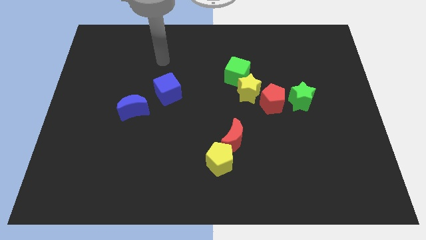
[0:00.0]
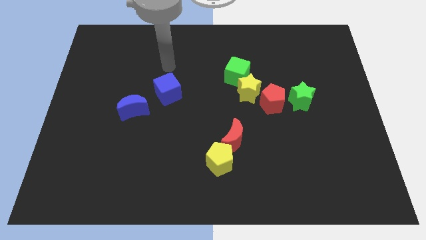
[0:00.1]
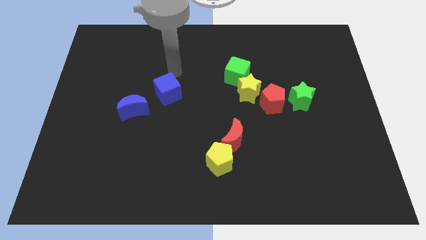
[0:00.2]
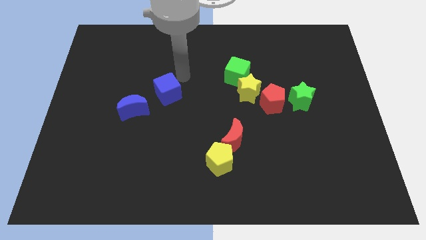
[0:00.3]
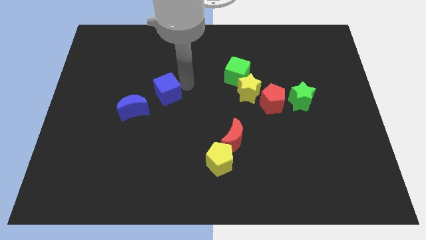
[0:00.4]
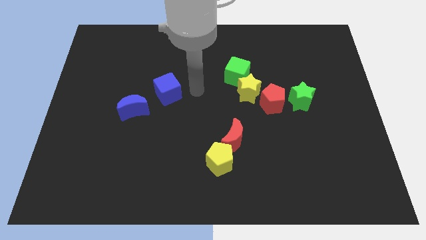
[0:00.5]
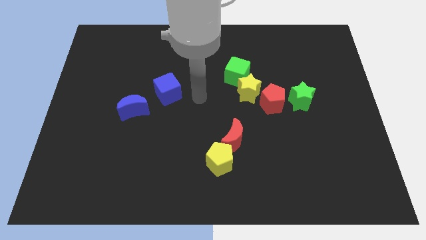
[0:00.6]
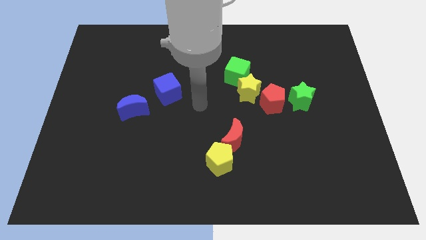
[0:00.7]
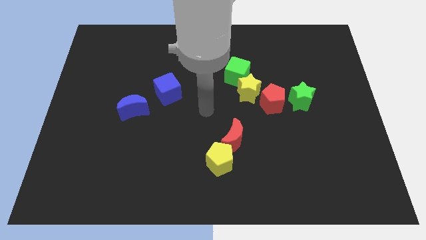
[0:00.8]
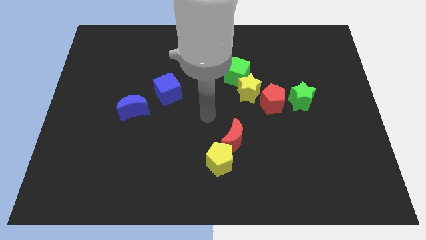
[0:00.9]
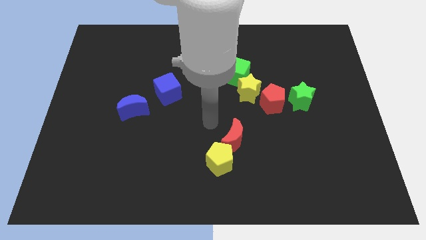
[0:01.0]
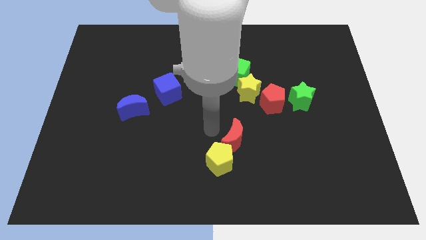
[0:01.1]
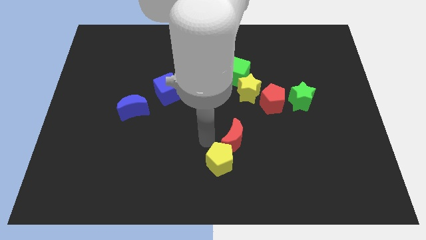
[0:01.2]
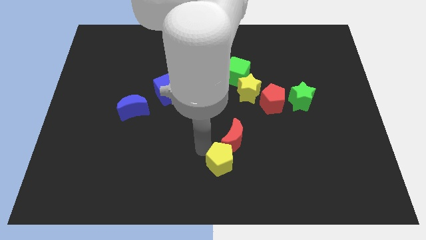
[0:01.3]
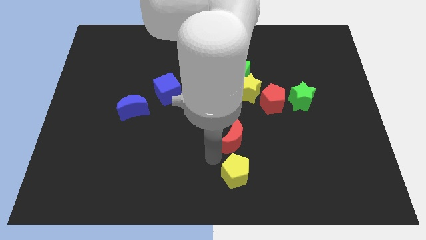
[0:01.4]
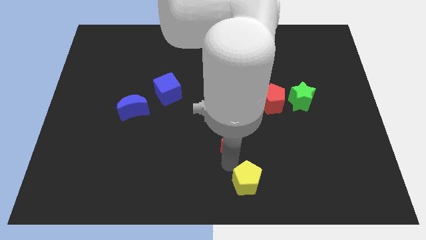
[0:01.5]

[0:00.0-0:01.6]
move the red moon away from the yellow pentagon

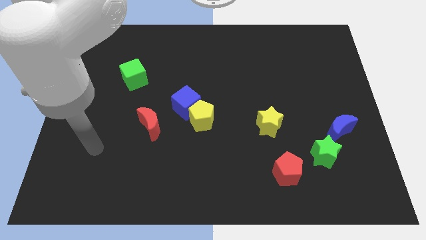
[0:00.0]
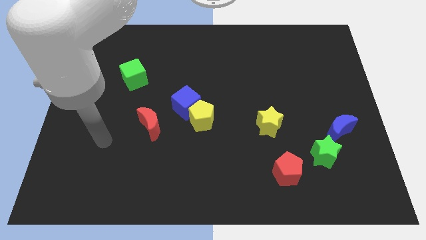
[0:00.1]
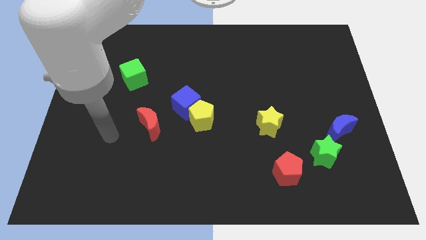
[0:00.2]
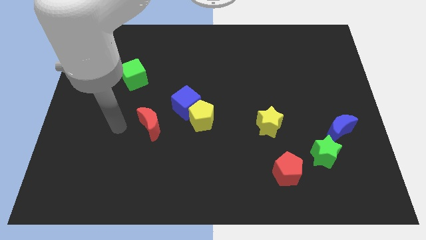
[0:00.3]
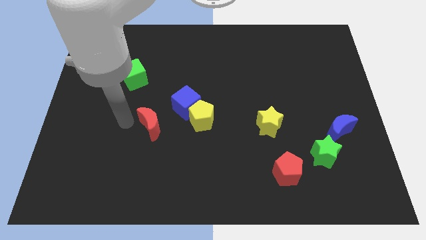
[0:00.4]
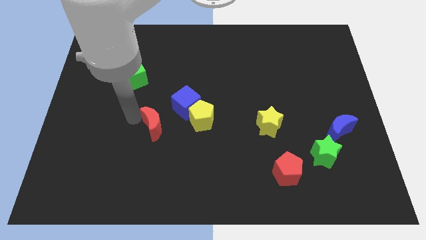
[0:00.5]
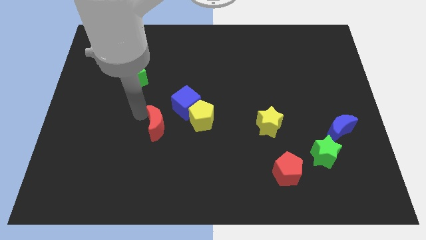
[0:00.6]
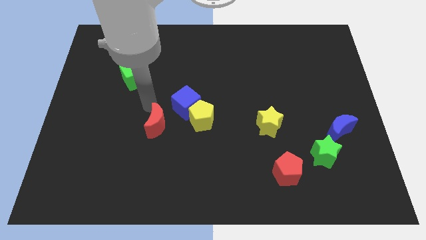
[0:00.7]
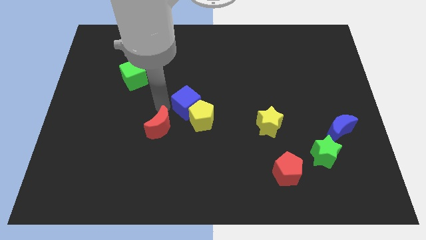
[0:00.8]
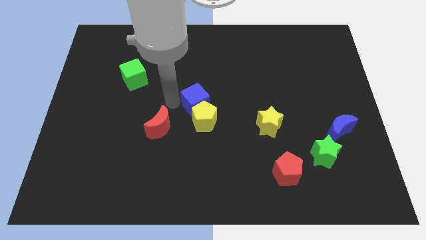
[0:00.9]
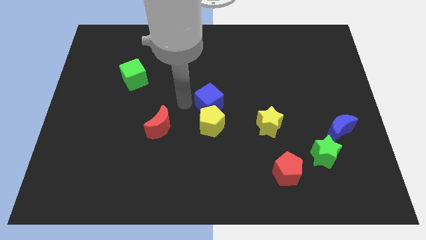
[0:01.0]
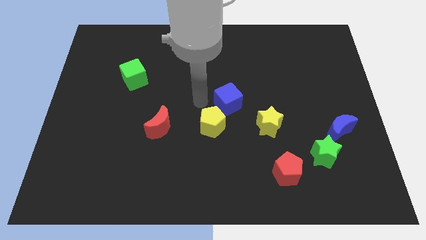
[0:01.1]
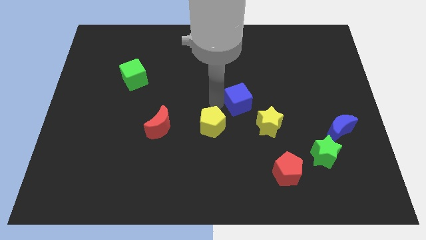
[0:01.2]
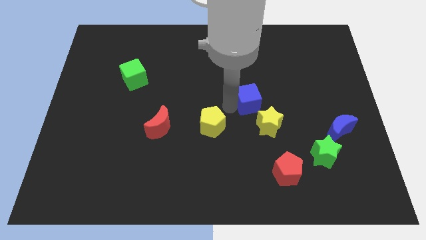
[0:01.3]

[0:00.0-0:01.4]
pull the yellow pentagon apart from the blue cube

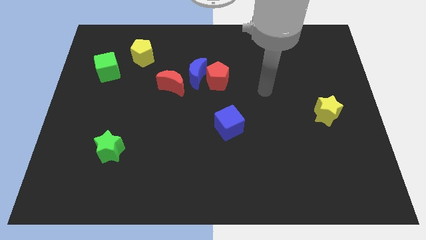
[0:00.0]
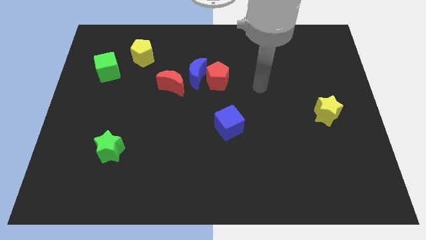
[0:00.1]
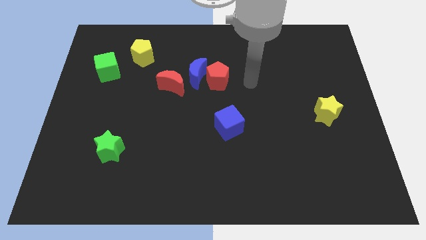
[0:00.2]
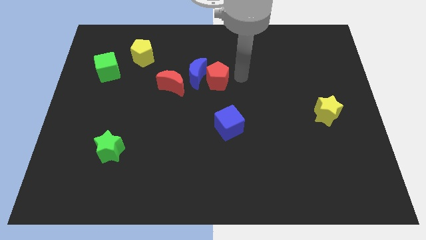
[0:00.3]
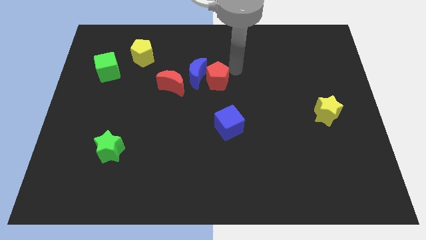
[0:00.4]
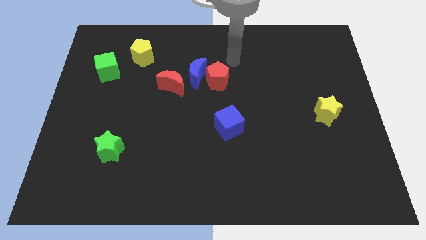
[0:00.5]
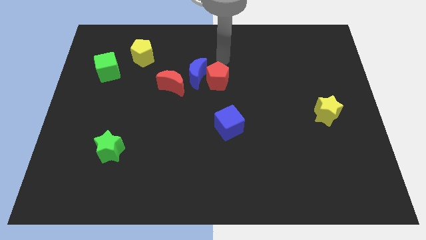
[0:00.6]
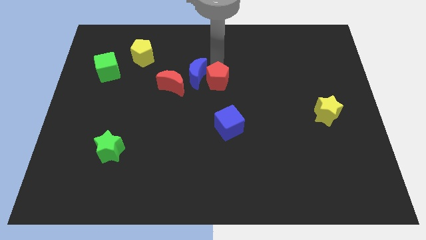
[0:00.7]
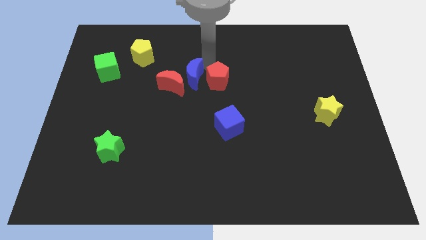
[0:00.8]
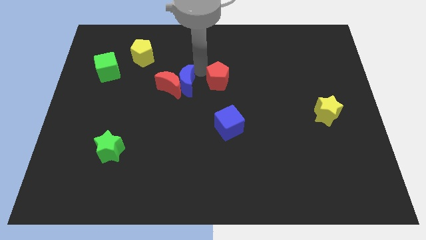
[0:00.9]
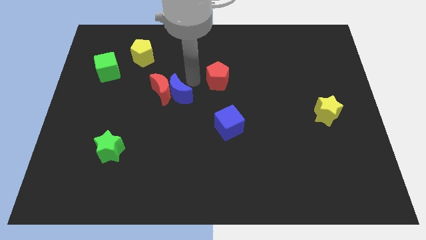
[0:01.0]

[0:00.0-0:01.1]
separate the red pentagon from the blue moon

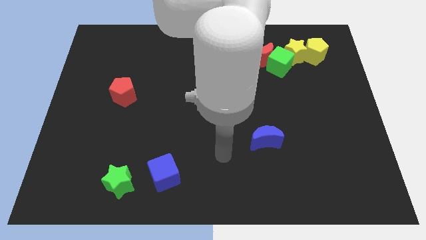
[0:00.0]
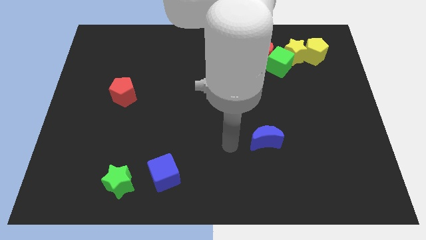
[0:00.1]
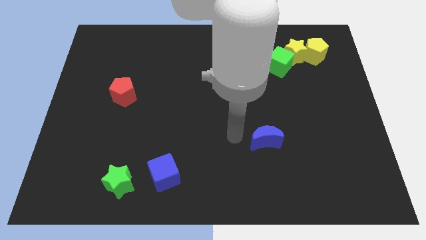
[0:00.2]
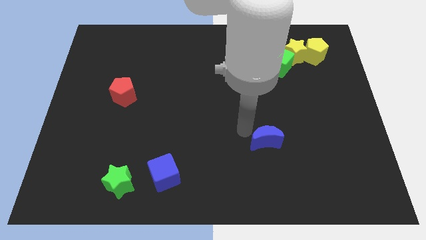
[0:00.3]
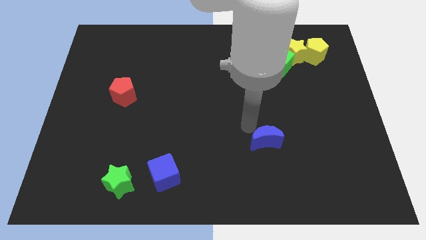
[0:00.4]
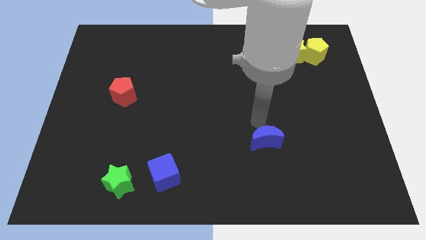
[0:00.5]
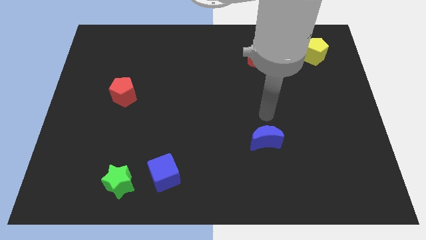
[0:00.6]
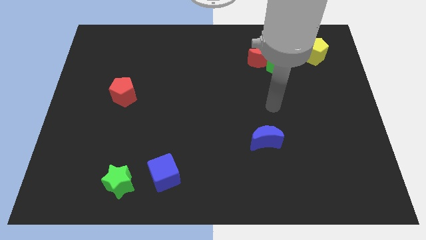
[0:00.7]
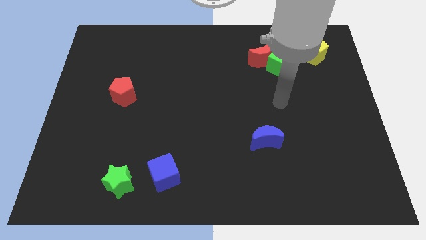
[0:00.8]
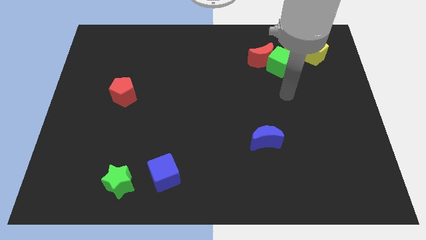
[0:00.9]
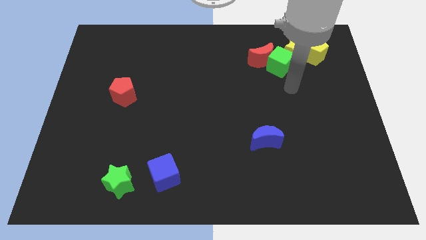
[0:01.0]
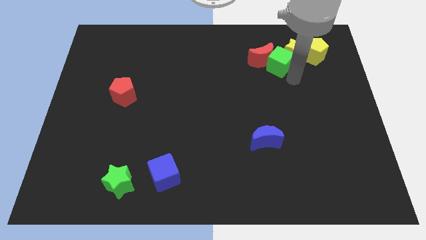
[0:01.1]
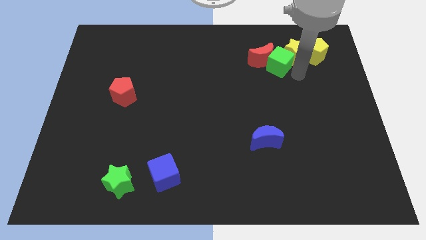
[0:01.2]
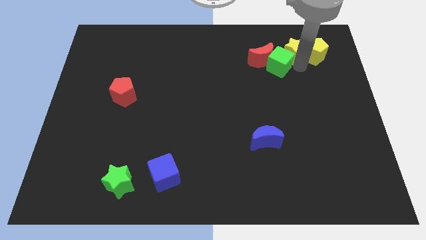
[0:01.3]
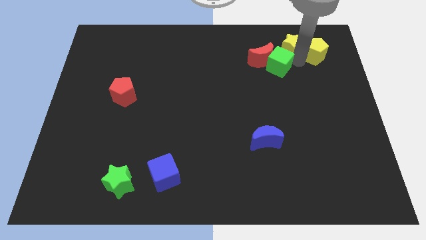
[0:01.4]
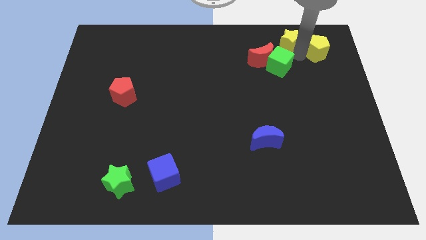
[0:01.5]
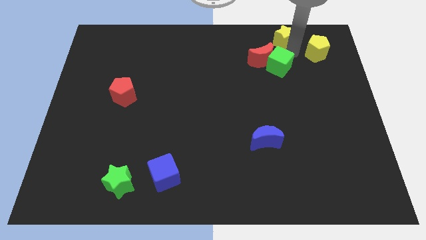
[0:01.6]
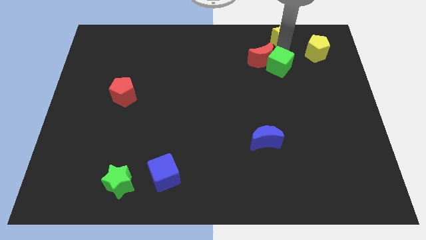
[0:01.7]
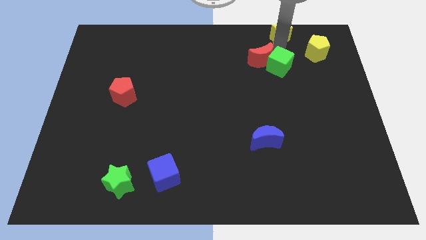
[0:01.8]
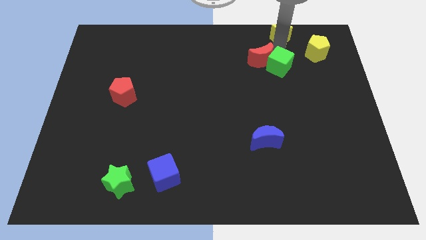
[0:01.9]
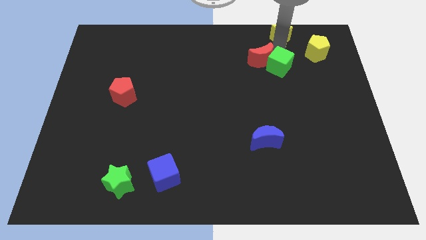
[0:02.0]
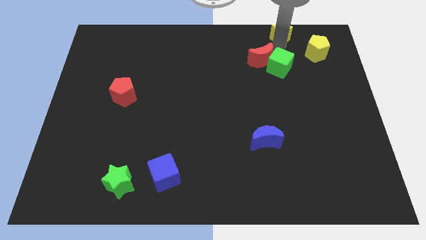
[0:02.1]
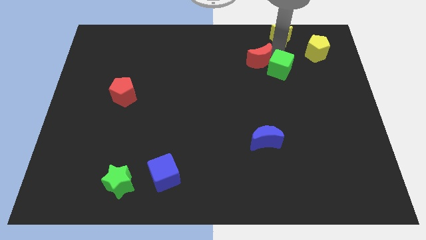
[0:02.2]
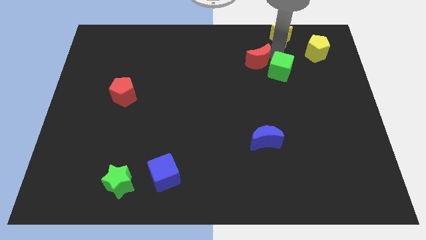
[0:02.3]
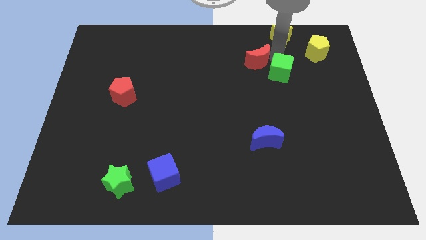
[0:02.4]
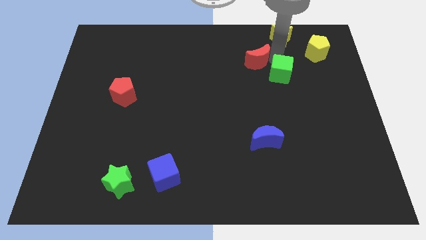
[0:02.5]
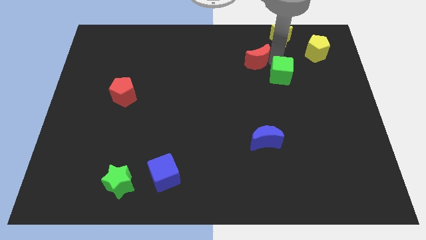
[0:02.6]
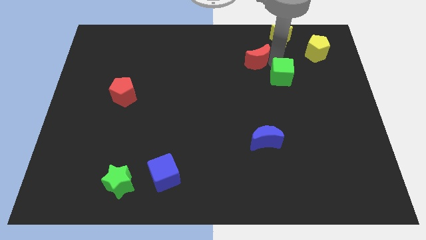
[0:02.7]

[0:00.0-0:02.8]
move the green cube away from the red moon and yellow star

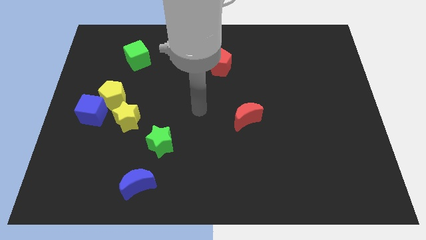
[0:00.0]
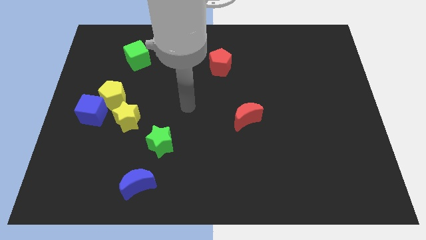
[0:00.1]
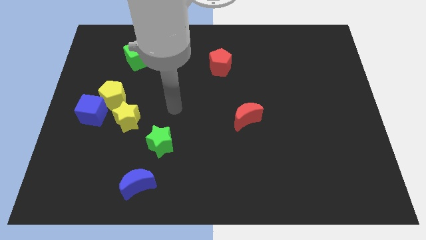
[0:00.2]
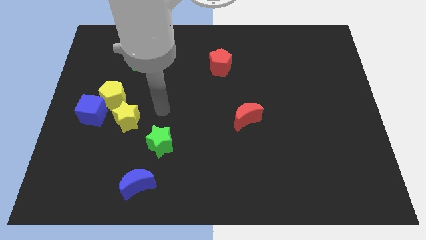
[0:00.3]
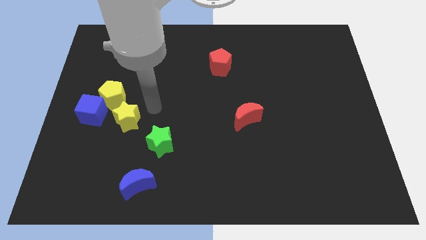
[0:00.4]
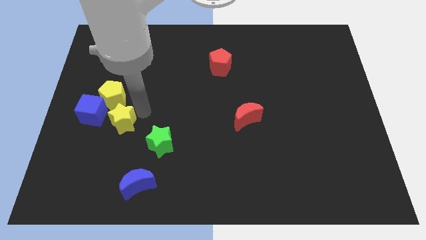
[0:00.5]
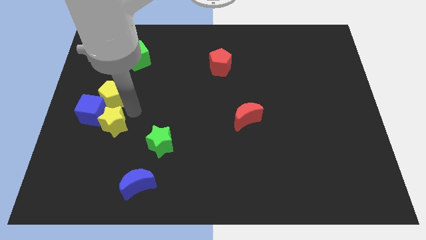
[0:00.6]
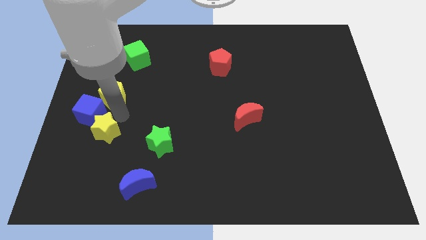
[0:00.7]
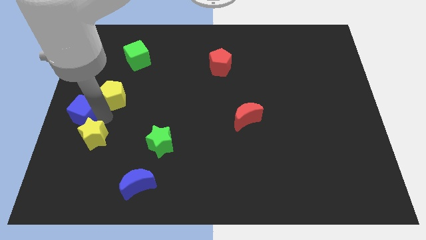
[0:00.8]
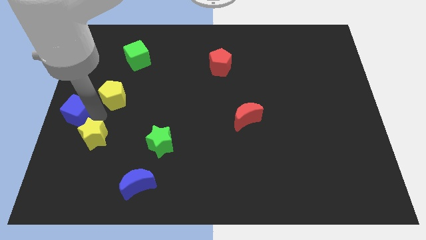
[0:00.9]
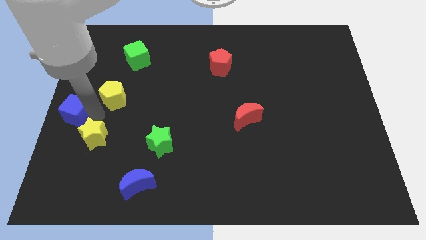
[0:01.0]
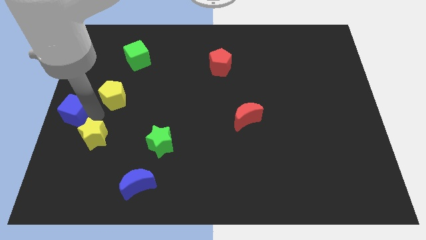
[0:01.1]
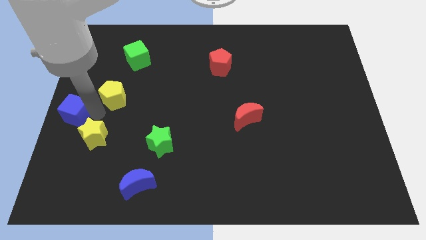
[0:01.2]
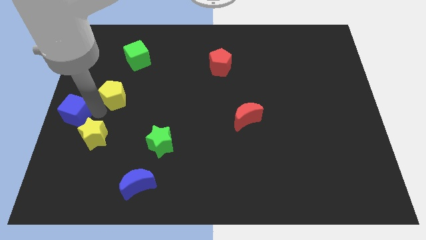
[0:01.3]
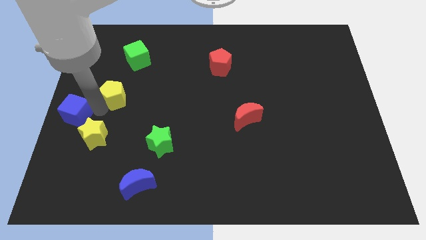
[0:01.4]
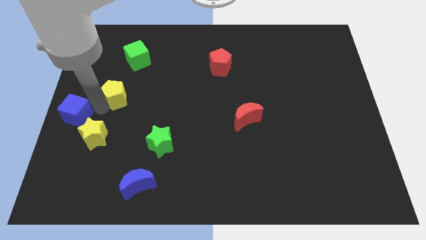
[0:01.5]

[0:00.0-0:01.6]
pull the yellow pentagon apart from the blue cube and yellow star

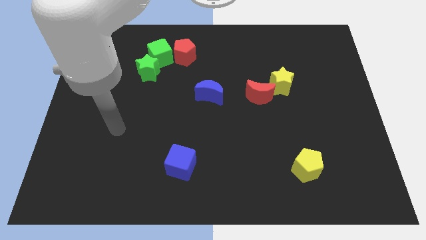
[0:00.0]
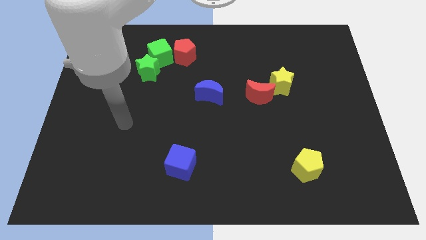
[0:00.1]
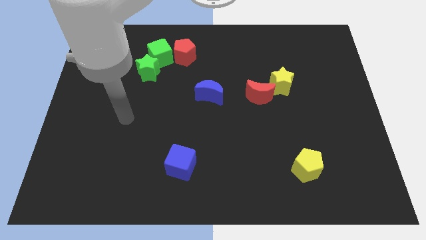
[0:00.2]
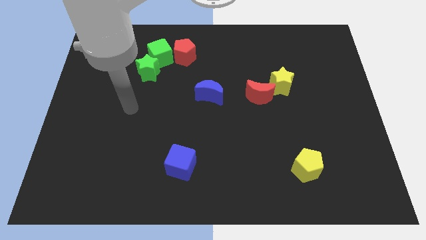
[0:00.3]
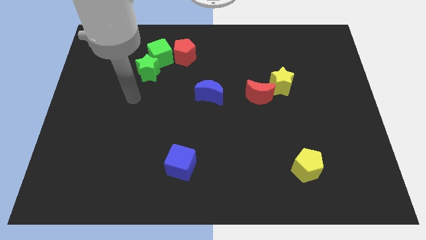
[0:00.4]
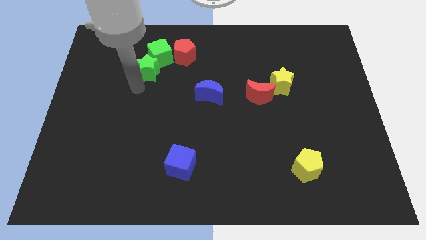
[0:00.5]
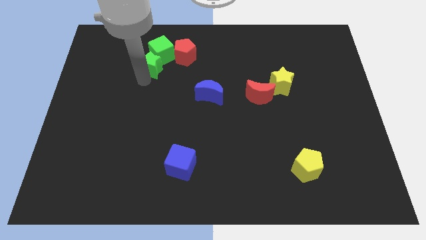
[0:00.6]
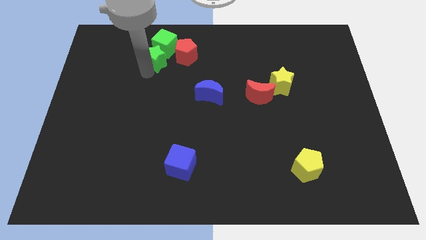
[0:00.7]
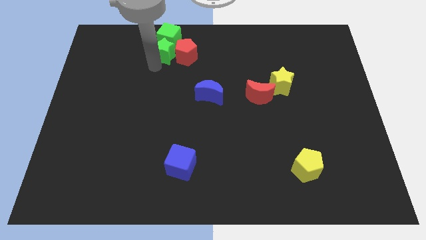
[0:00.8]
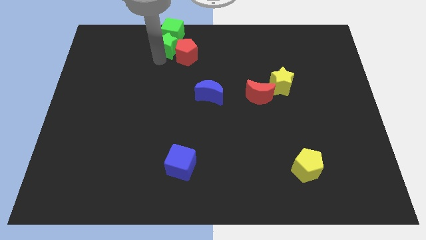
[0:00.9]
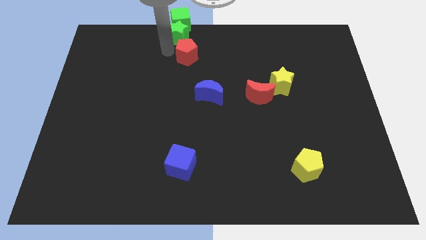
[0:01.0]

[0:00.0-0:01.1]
separate the red pentagon from the green cube
